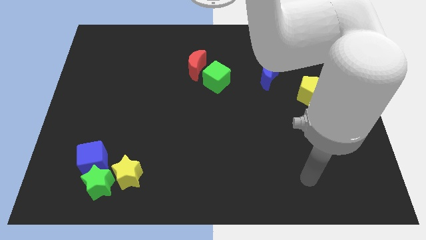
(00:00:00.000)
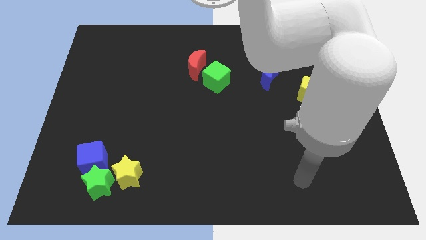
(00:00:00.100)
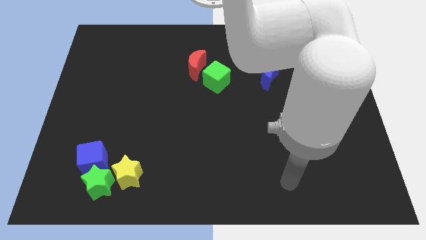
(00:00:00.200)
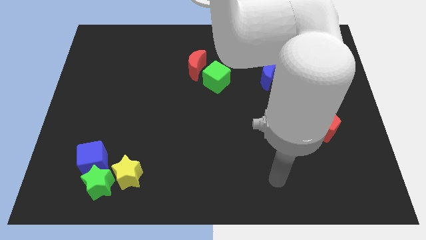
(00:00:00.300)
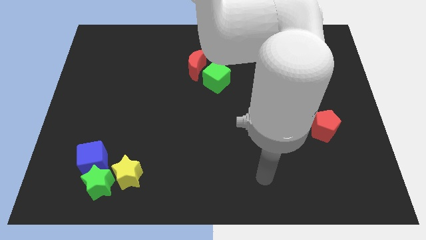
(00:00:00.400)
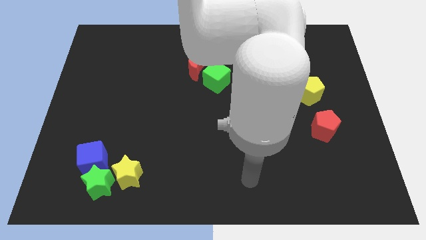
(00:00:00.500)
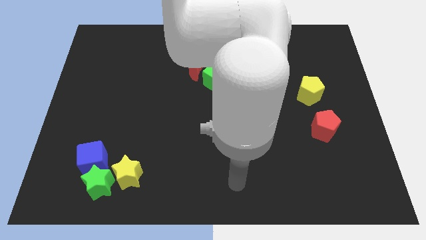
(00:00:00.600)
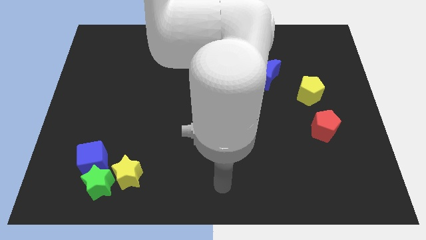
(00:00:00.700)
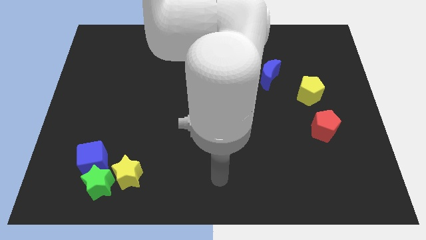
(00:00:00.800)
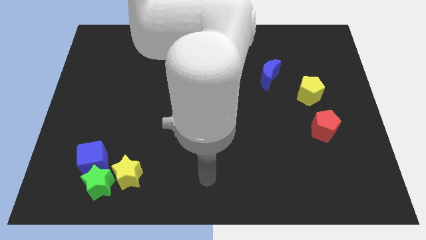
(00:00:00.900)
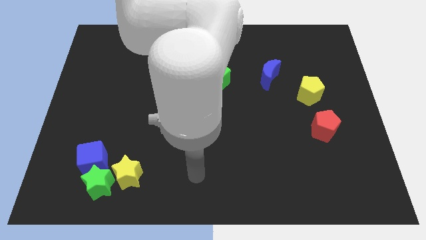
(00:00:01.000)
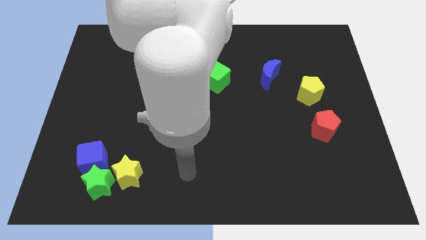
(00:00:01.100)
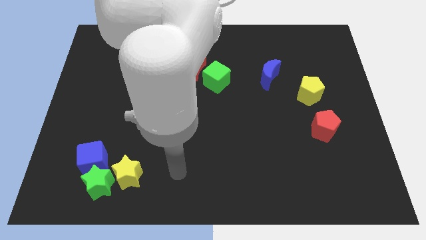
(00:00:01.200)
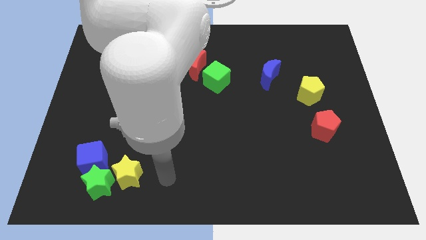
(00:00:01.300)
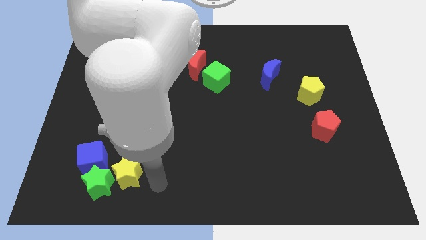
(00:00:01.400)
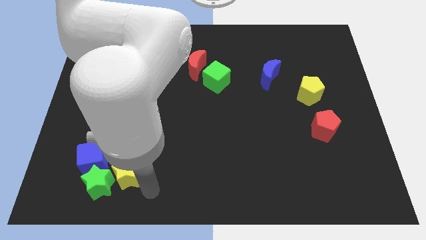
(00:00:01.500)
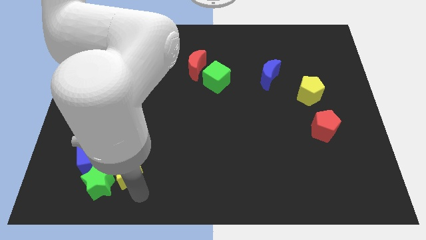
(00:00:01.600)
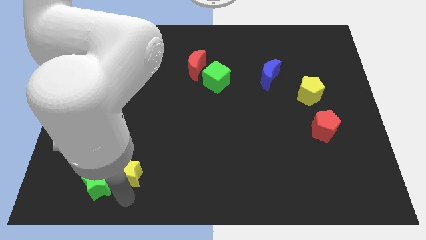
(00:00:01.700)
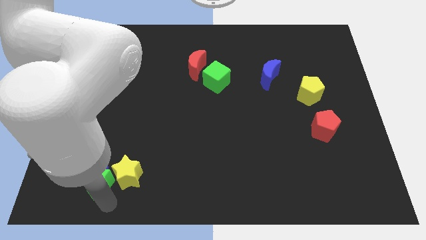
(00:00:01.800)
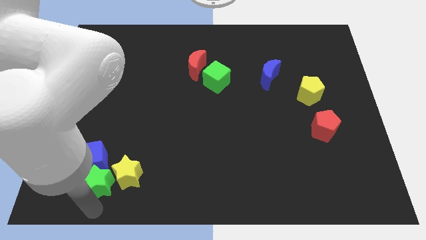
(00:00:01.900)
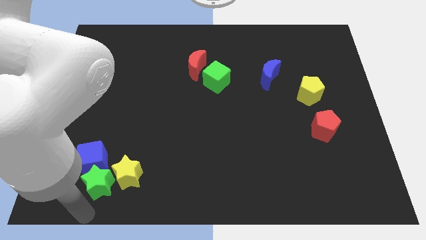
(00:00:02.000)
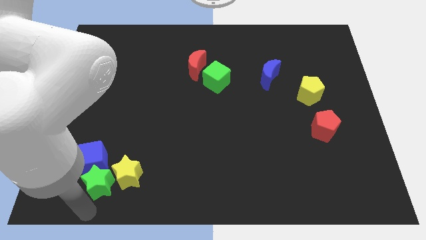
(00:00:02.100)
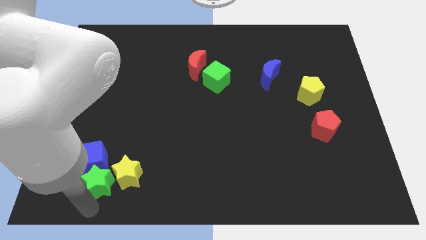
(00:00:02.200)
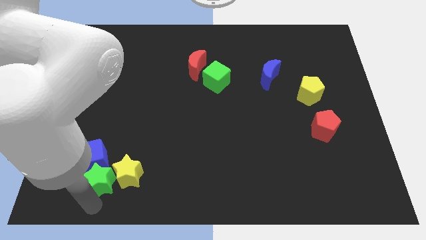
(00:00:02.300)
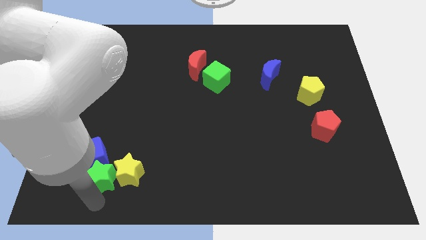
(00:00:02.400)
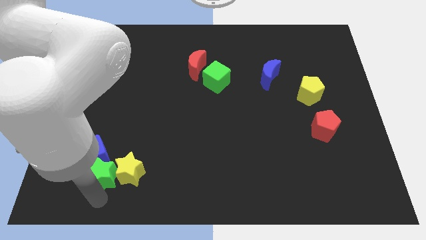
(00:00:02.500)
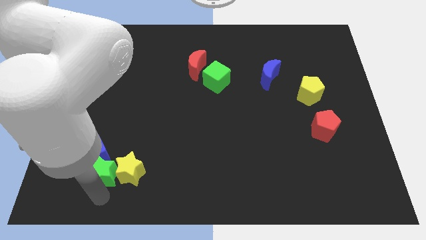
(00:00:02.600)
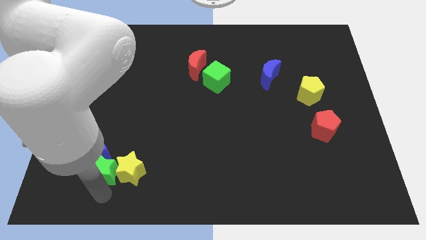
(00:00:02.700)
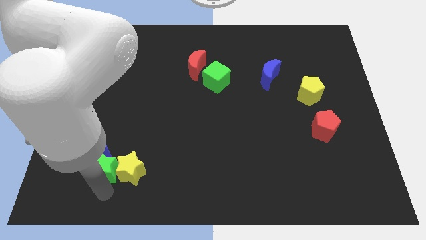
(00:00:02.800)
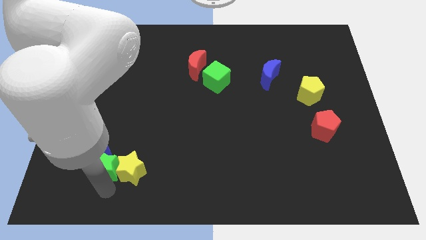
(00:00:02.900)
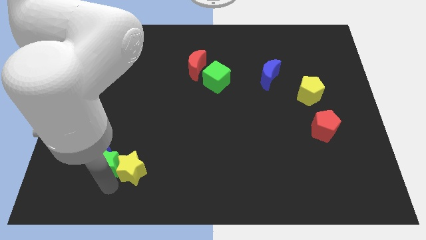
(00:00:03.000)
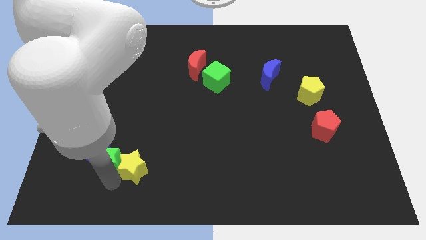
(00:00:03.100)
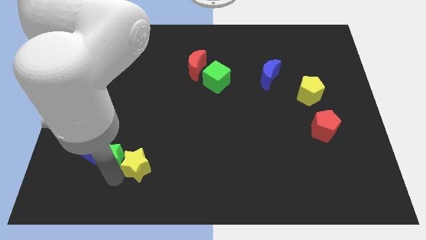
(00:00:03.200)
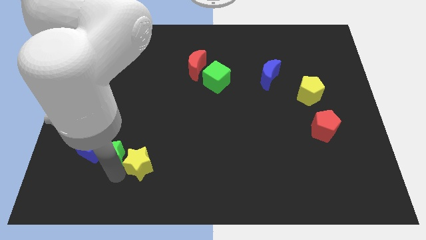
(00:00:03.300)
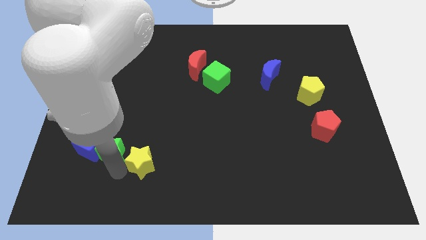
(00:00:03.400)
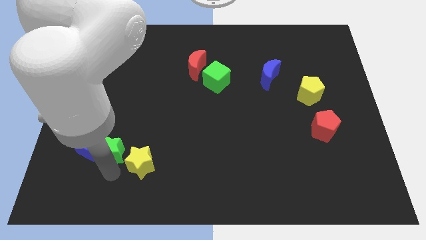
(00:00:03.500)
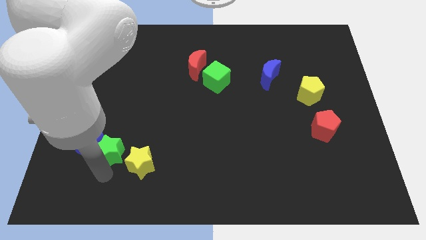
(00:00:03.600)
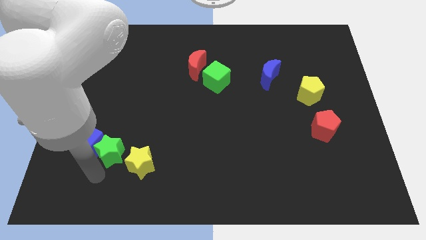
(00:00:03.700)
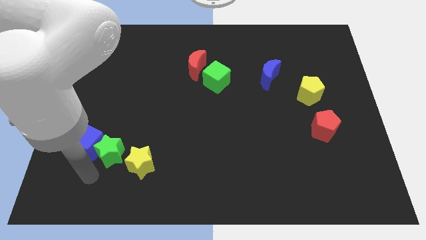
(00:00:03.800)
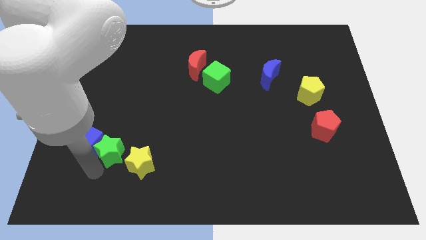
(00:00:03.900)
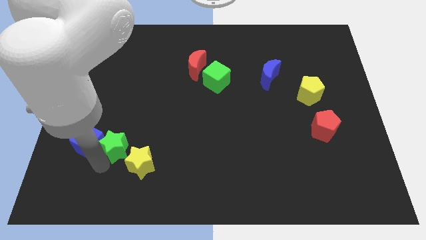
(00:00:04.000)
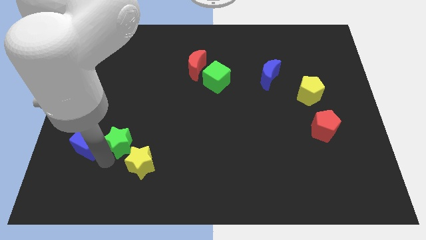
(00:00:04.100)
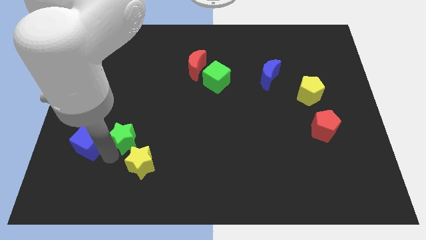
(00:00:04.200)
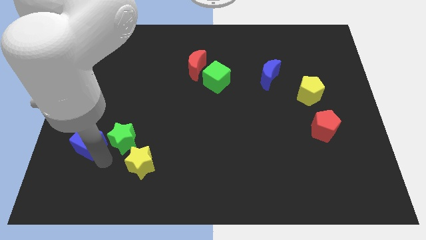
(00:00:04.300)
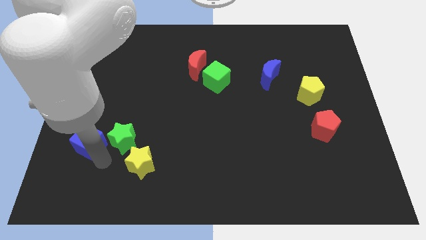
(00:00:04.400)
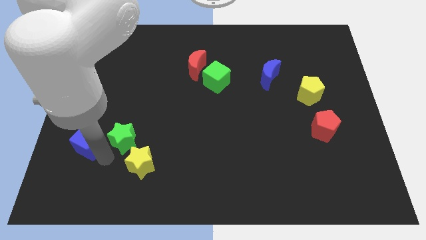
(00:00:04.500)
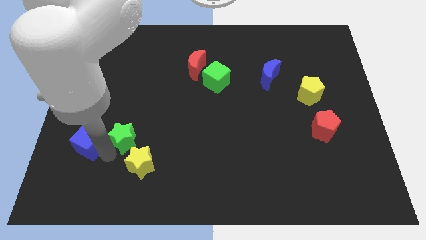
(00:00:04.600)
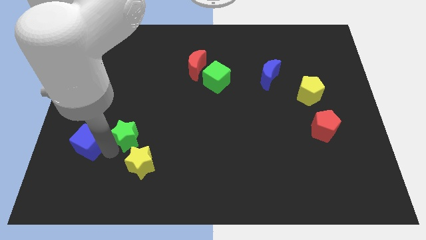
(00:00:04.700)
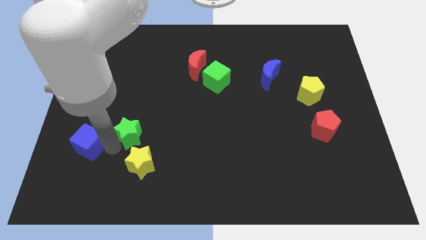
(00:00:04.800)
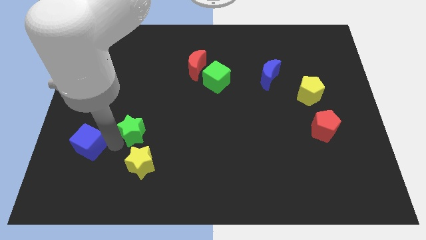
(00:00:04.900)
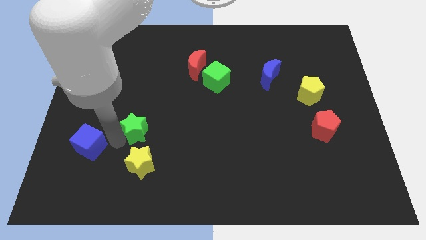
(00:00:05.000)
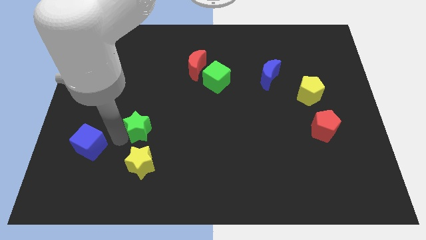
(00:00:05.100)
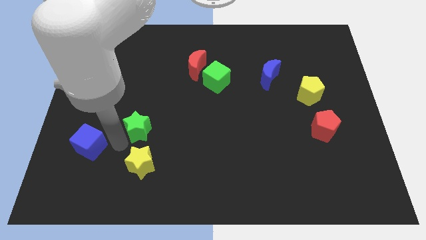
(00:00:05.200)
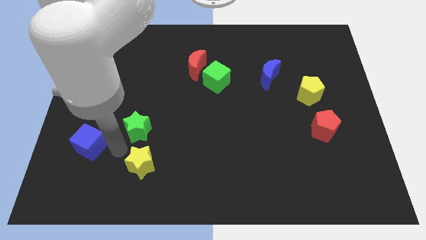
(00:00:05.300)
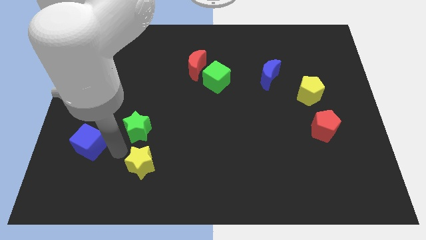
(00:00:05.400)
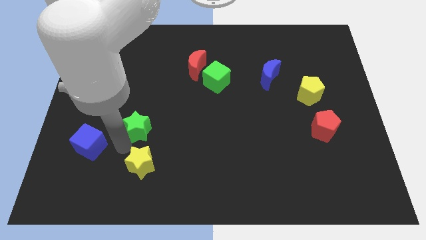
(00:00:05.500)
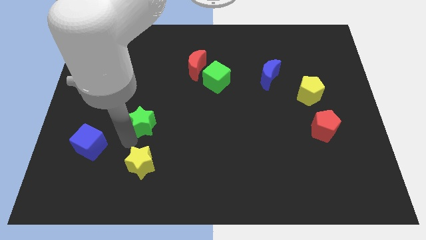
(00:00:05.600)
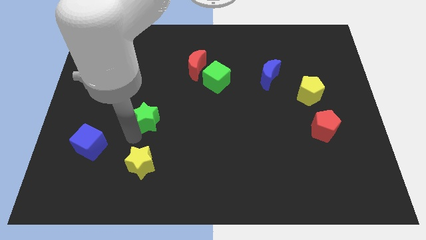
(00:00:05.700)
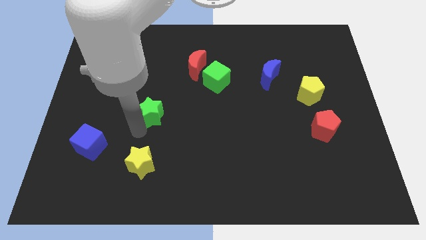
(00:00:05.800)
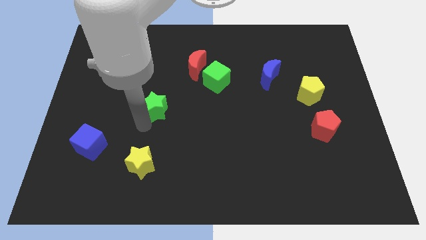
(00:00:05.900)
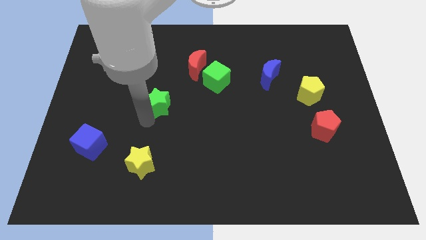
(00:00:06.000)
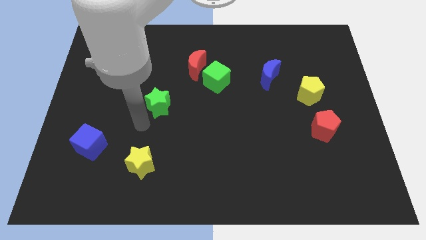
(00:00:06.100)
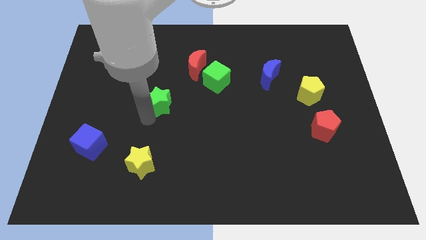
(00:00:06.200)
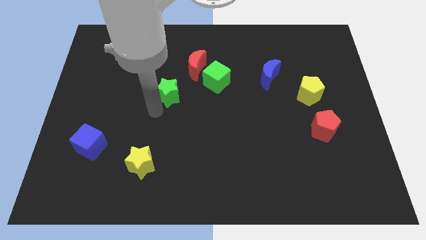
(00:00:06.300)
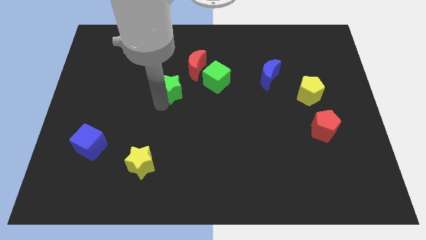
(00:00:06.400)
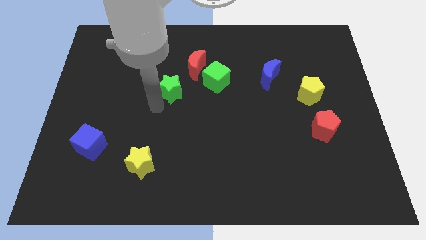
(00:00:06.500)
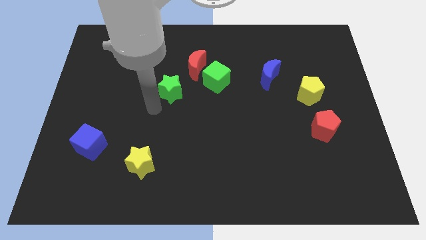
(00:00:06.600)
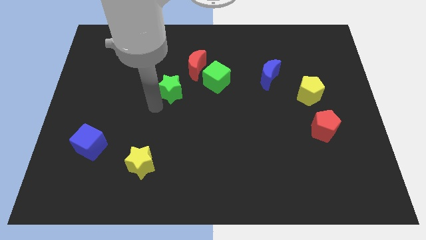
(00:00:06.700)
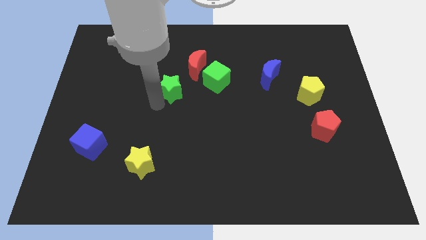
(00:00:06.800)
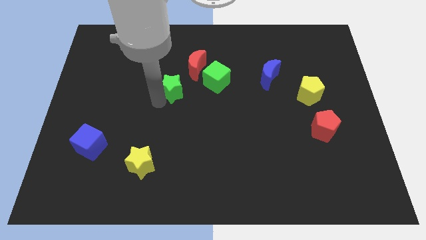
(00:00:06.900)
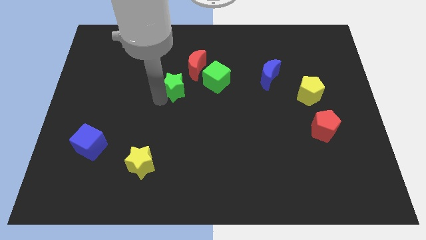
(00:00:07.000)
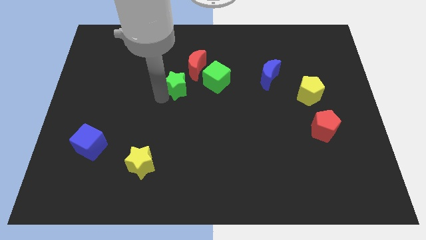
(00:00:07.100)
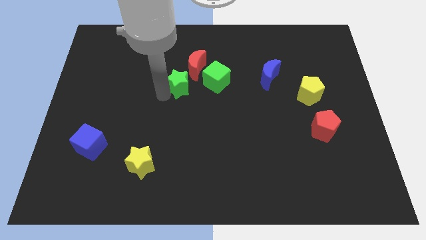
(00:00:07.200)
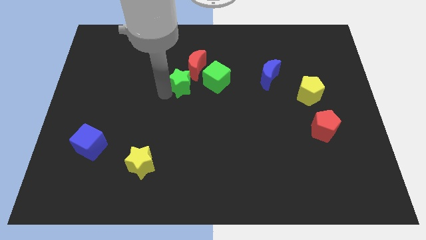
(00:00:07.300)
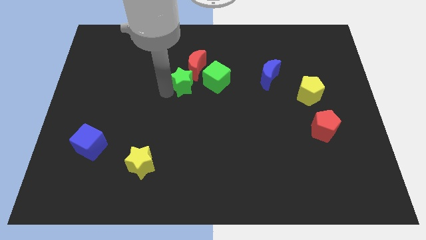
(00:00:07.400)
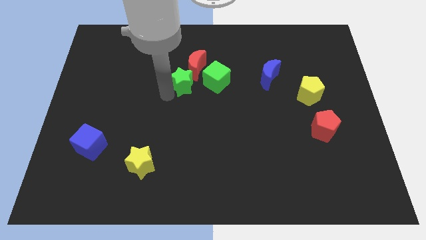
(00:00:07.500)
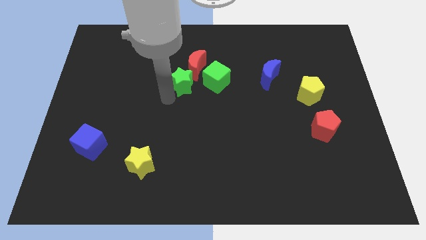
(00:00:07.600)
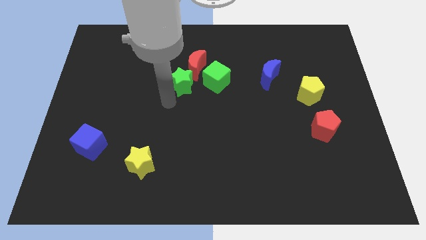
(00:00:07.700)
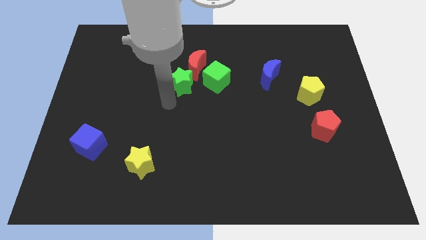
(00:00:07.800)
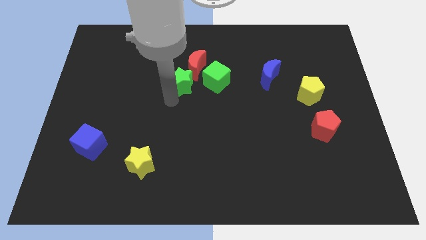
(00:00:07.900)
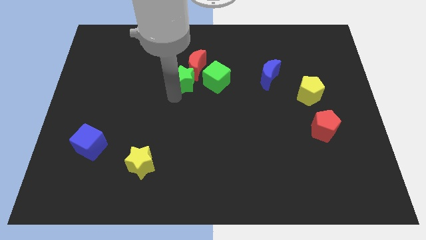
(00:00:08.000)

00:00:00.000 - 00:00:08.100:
push the green star to the red moon
